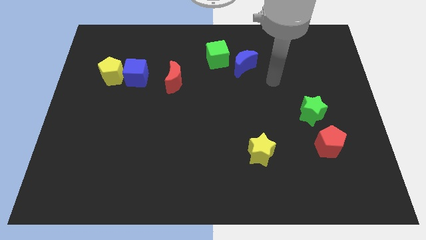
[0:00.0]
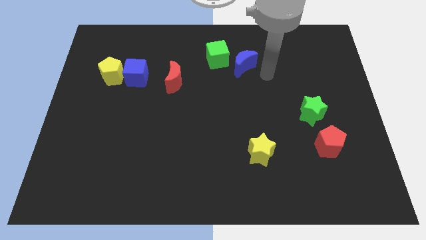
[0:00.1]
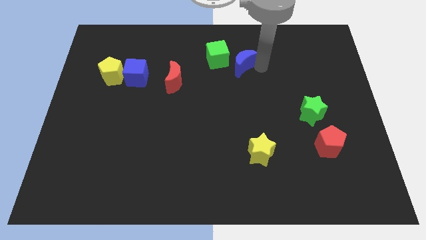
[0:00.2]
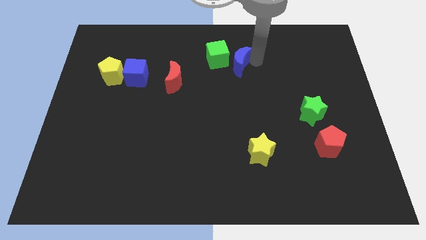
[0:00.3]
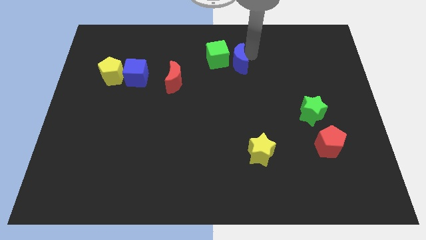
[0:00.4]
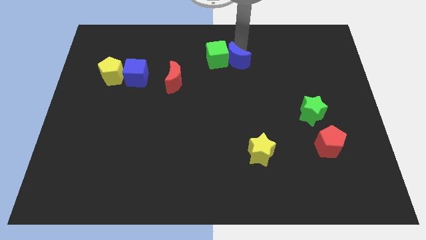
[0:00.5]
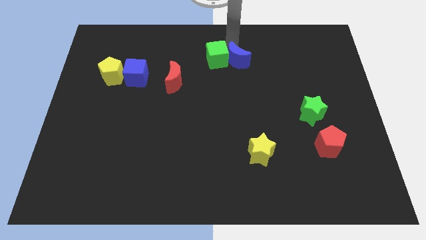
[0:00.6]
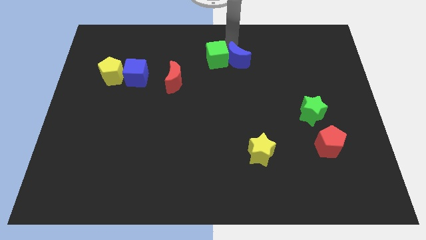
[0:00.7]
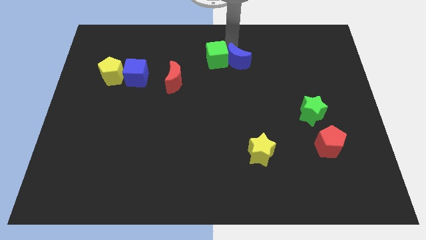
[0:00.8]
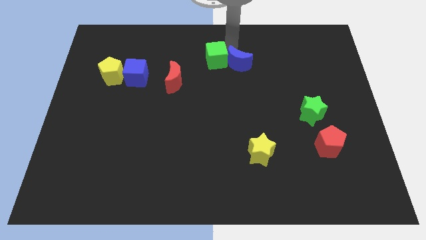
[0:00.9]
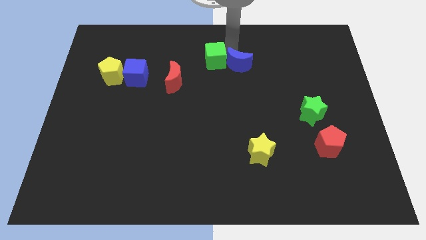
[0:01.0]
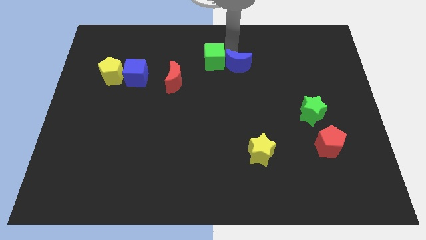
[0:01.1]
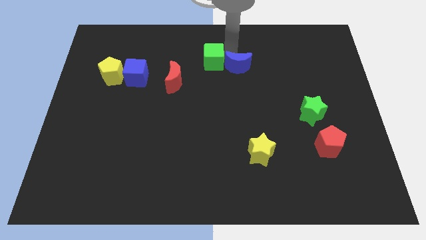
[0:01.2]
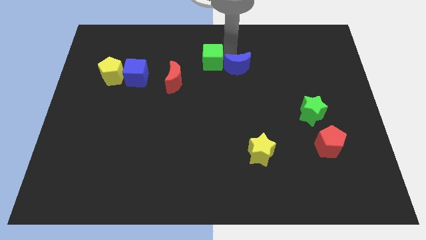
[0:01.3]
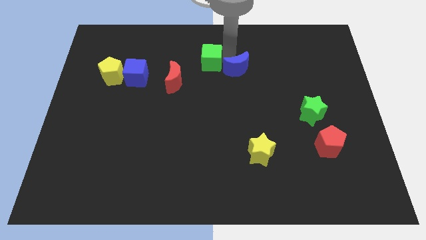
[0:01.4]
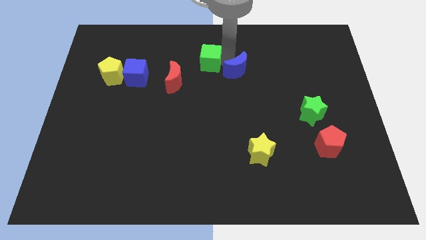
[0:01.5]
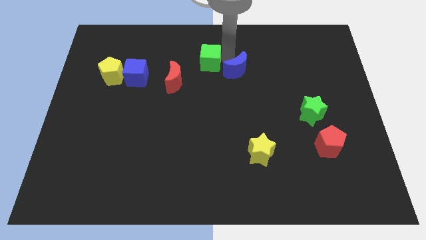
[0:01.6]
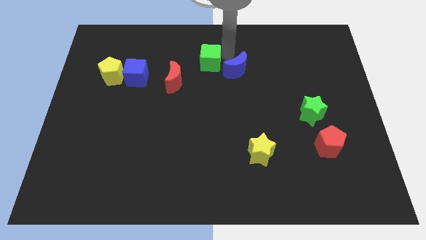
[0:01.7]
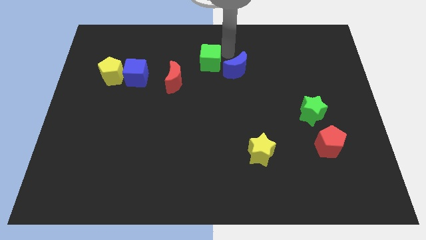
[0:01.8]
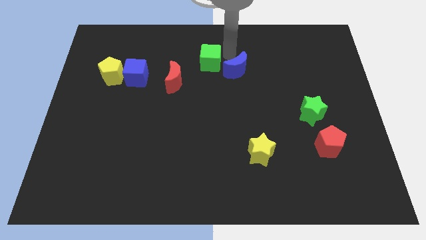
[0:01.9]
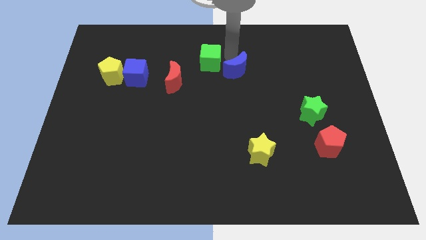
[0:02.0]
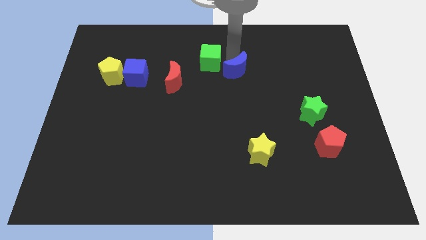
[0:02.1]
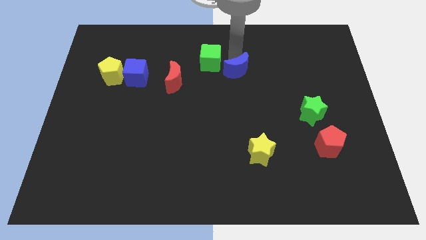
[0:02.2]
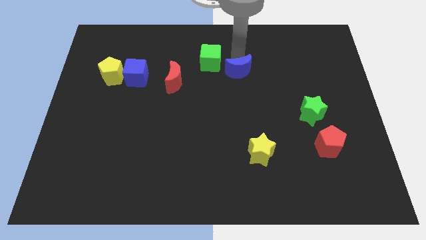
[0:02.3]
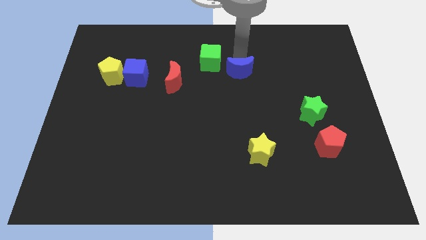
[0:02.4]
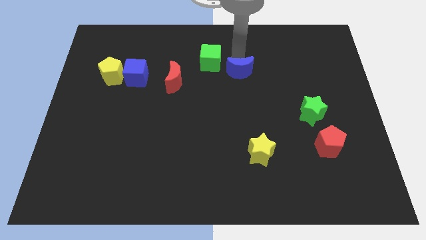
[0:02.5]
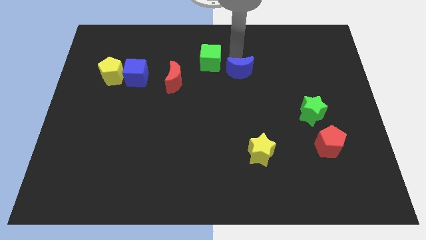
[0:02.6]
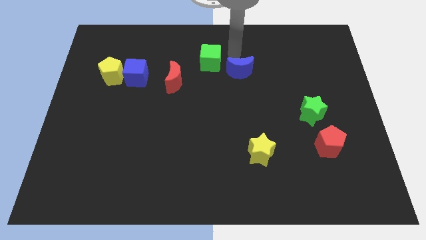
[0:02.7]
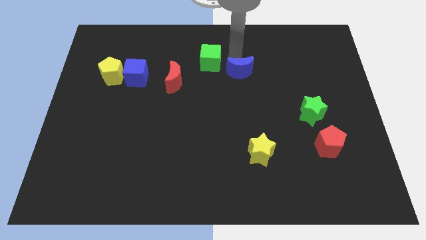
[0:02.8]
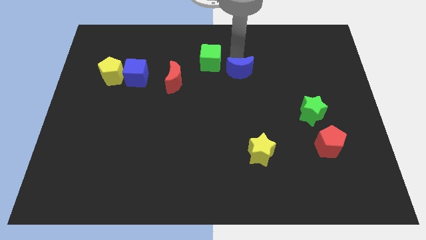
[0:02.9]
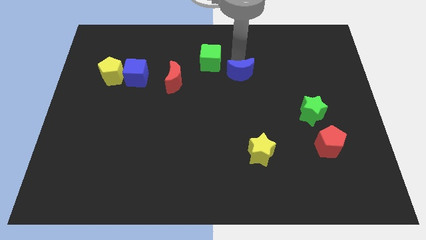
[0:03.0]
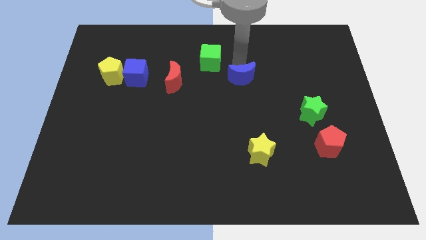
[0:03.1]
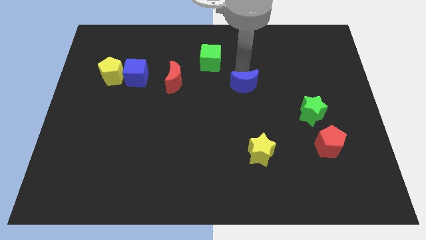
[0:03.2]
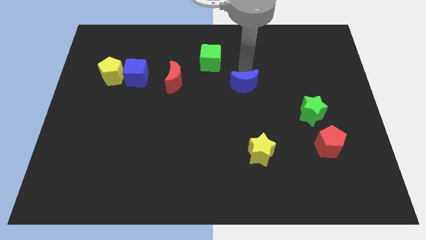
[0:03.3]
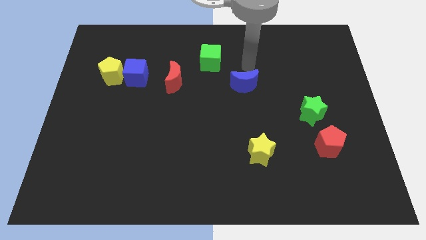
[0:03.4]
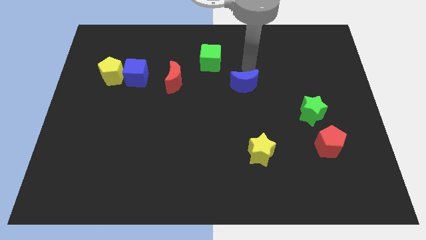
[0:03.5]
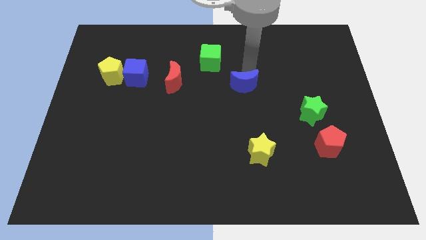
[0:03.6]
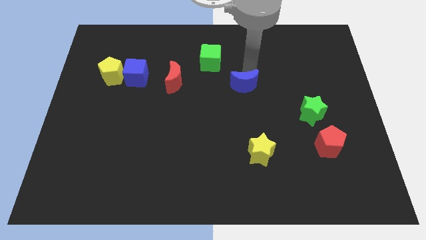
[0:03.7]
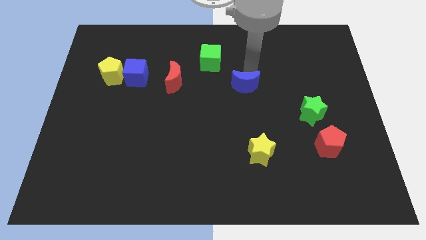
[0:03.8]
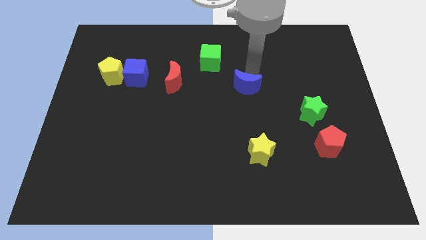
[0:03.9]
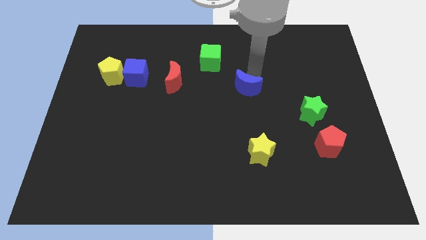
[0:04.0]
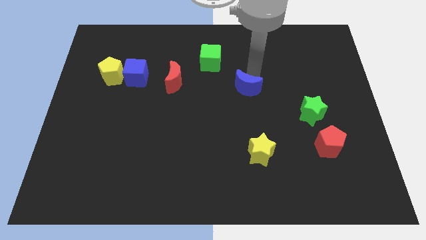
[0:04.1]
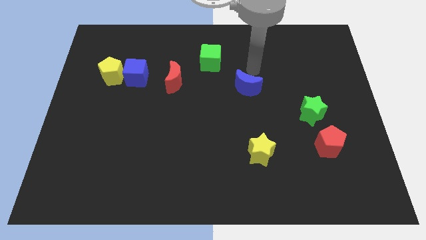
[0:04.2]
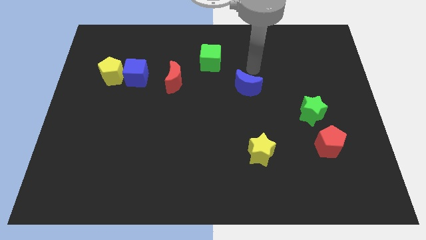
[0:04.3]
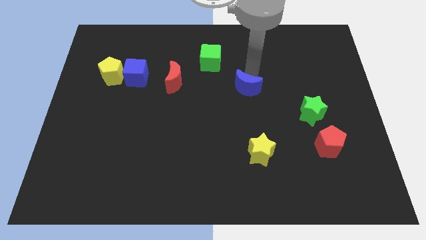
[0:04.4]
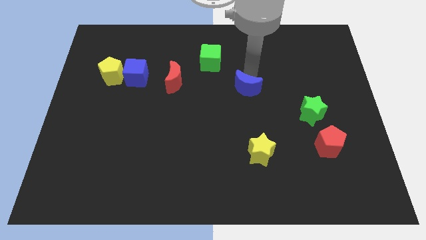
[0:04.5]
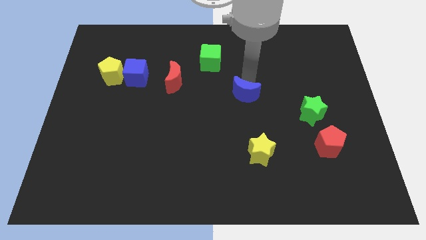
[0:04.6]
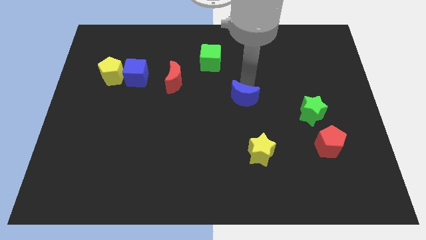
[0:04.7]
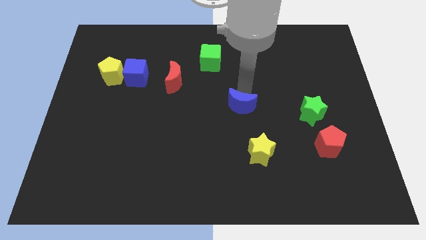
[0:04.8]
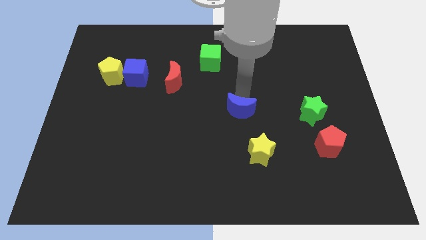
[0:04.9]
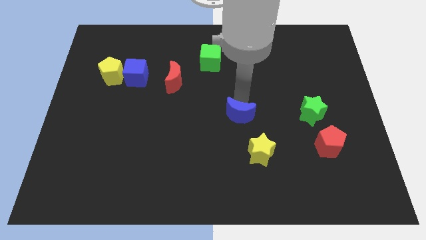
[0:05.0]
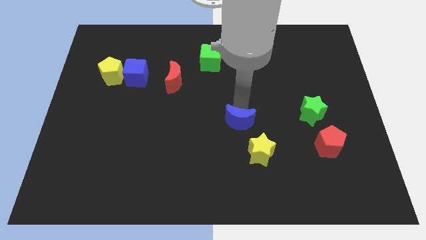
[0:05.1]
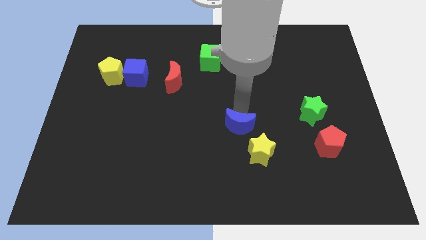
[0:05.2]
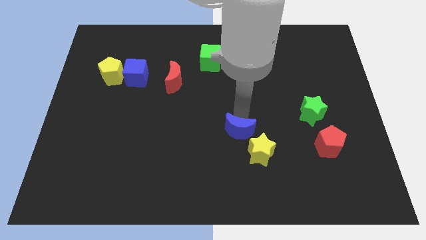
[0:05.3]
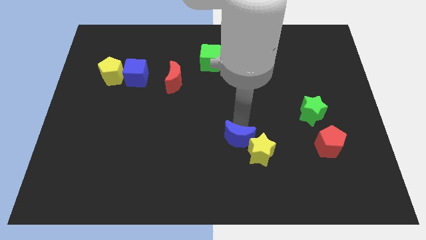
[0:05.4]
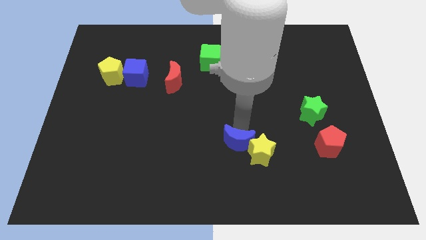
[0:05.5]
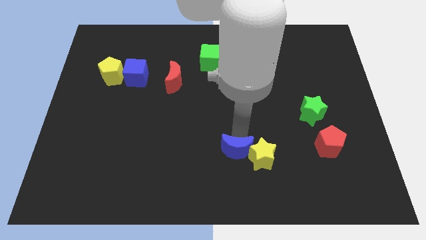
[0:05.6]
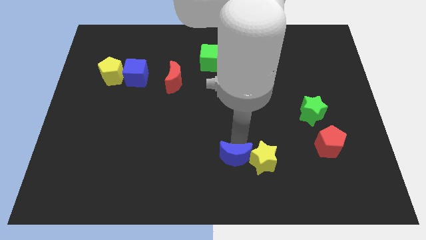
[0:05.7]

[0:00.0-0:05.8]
slide the blue moon to the bottom

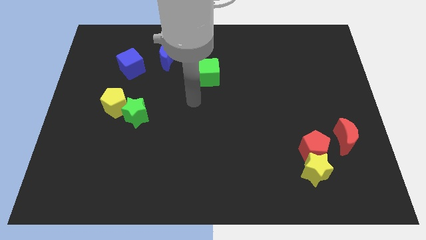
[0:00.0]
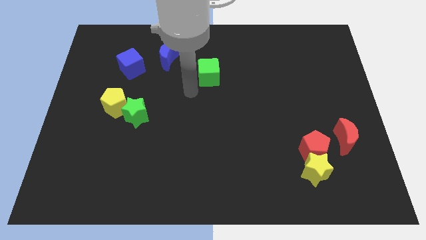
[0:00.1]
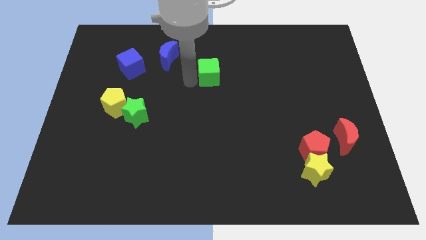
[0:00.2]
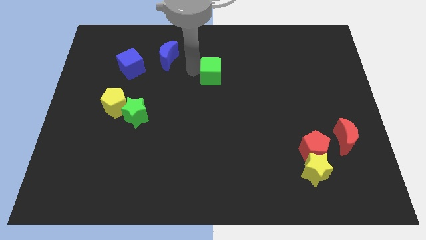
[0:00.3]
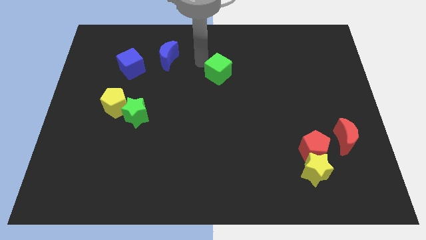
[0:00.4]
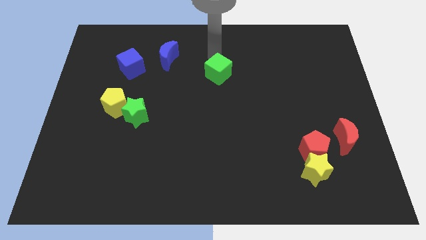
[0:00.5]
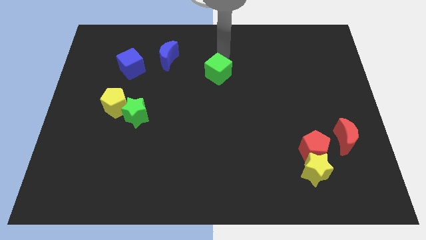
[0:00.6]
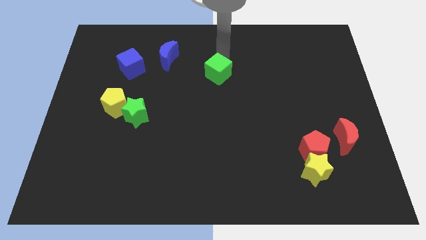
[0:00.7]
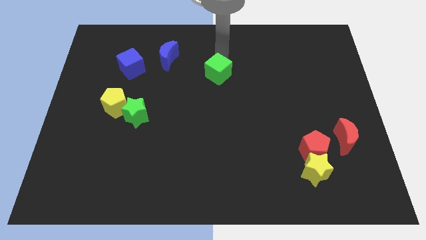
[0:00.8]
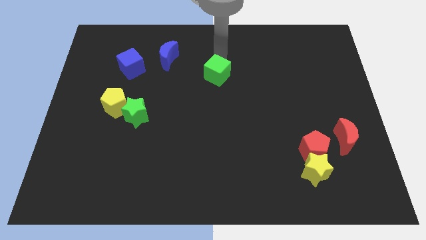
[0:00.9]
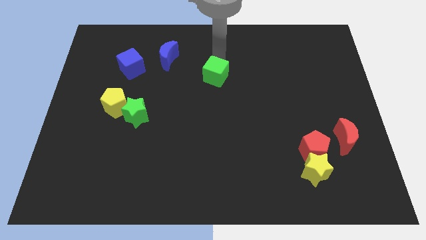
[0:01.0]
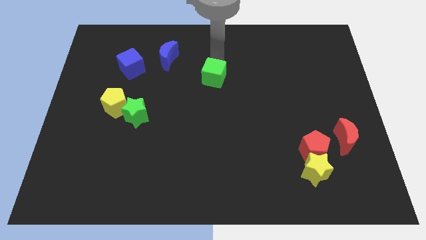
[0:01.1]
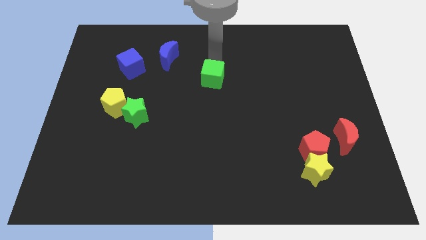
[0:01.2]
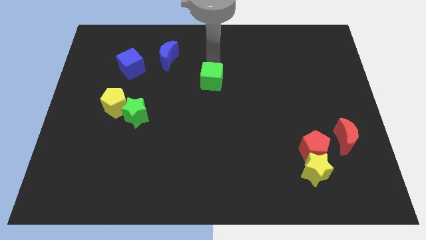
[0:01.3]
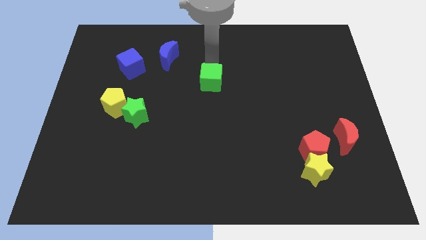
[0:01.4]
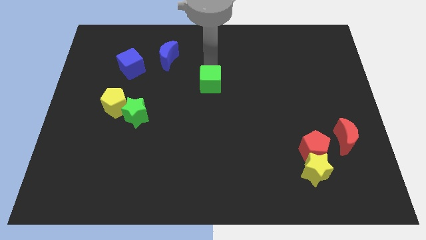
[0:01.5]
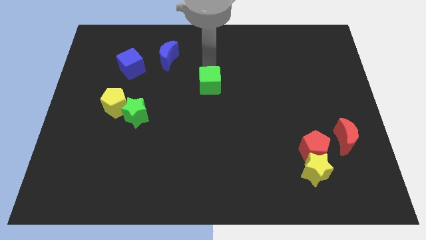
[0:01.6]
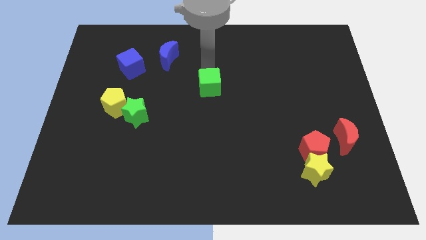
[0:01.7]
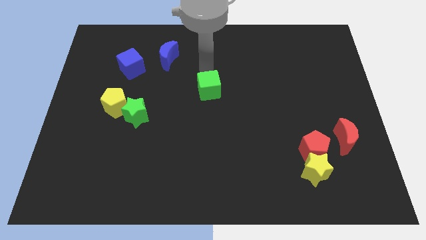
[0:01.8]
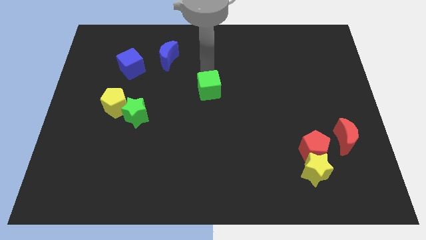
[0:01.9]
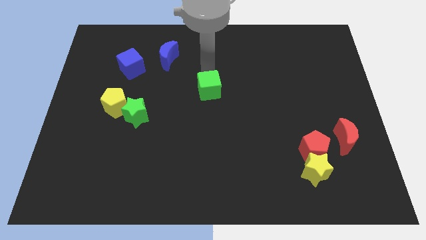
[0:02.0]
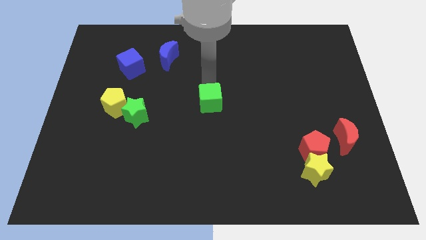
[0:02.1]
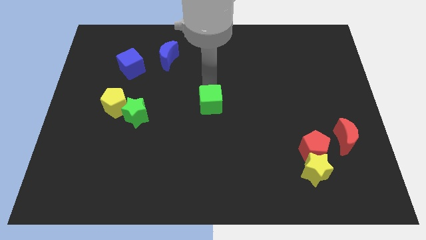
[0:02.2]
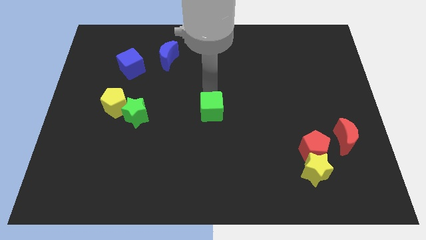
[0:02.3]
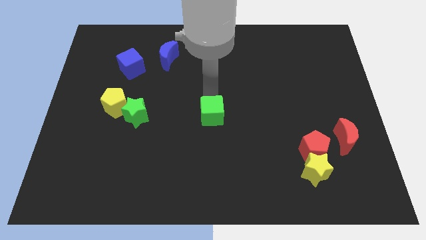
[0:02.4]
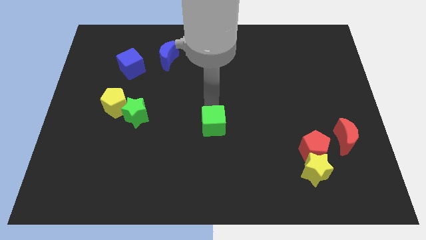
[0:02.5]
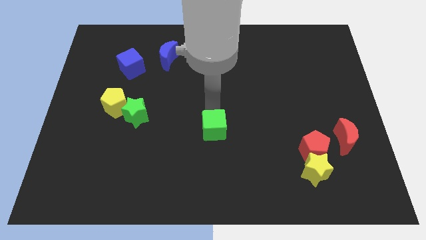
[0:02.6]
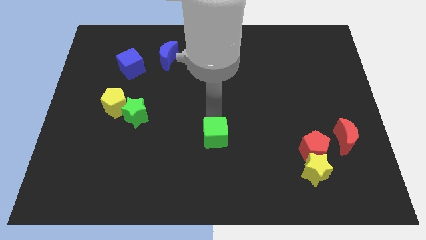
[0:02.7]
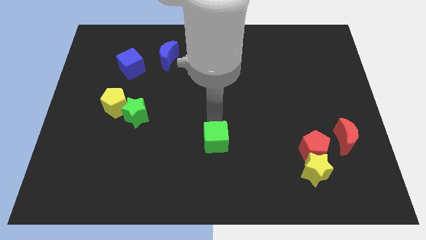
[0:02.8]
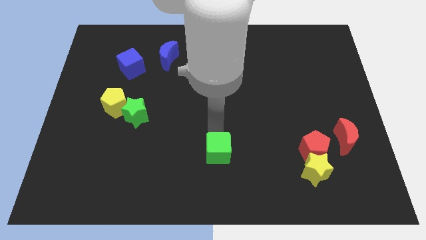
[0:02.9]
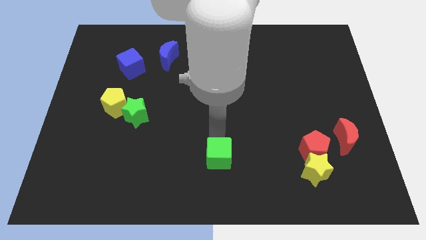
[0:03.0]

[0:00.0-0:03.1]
move the green cube to the bottom side
